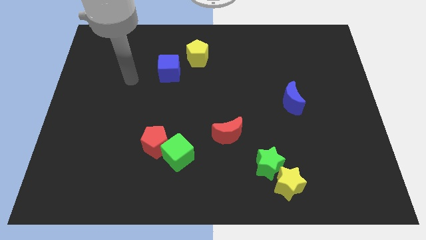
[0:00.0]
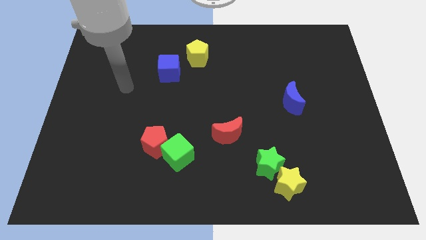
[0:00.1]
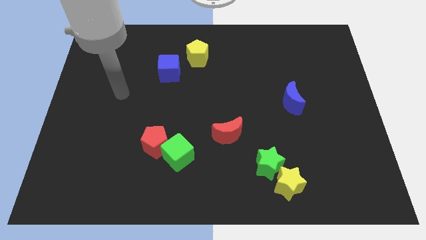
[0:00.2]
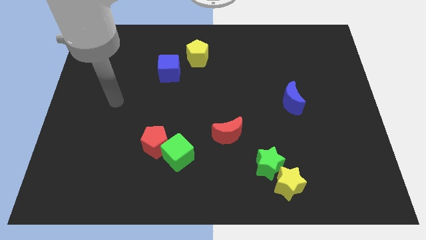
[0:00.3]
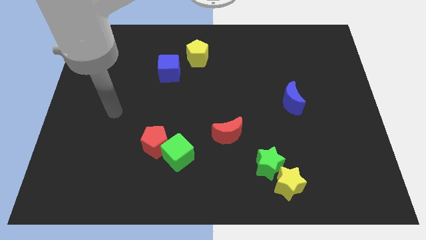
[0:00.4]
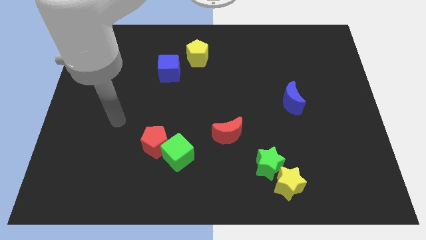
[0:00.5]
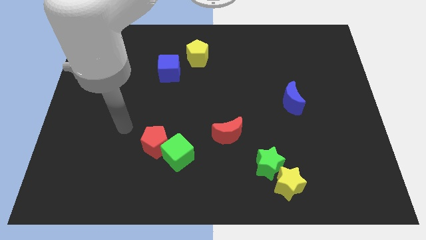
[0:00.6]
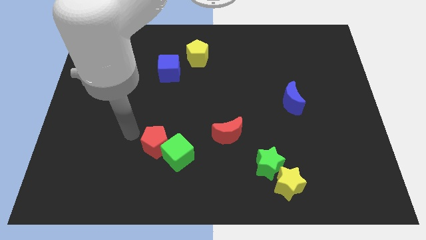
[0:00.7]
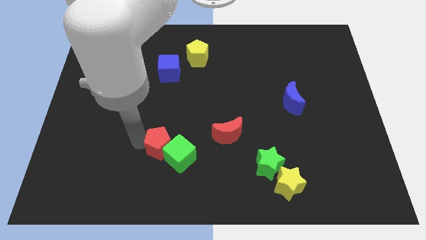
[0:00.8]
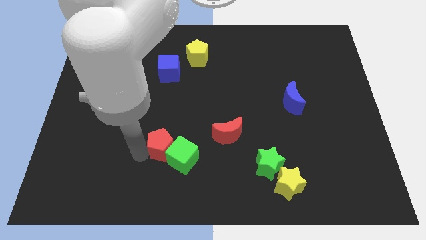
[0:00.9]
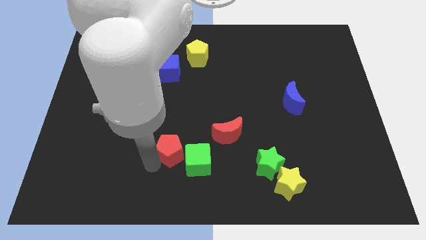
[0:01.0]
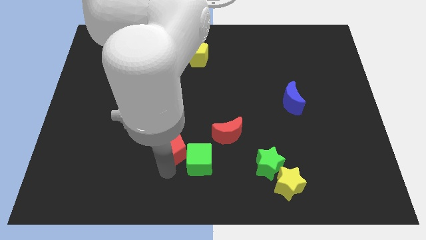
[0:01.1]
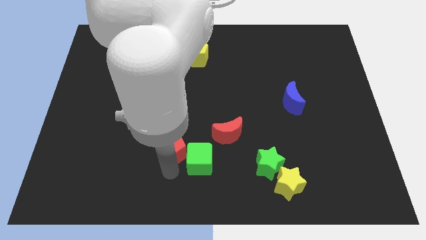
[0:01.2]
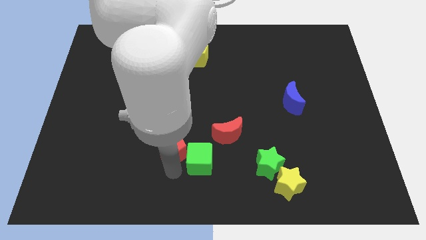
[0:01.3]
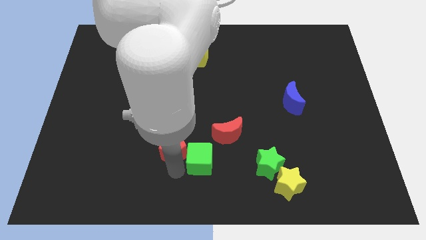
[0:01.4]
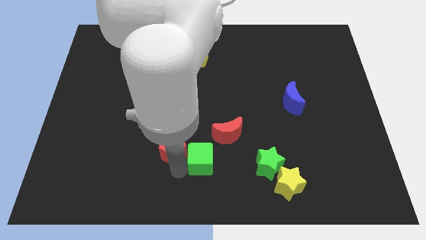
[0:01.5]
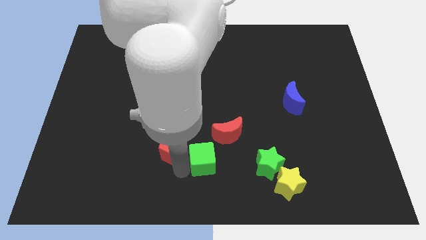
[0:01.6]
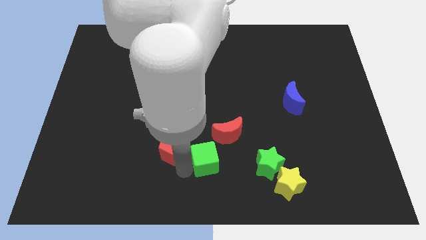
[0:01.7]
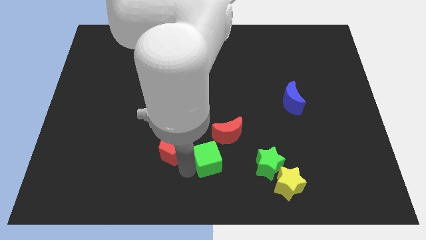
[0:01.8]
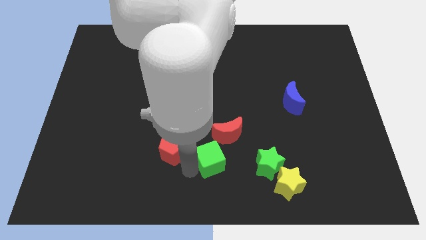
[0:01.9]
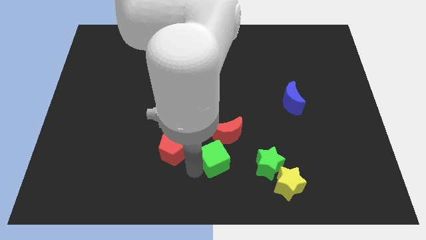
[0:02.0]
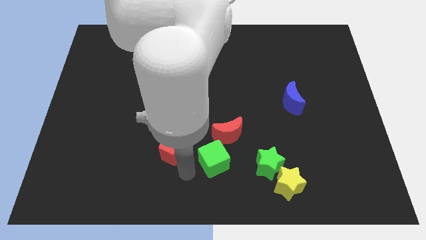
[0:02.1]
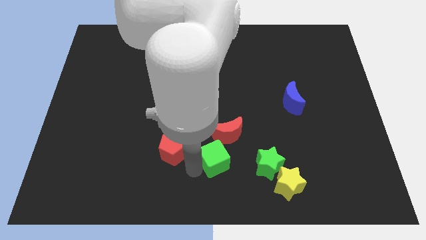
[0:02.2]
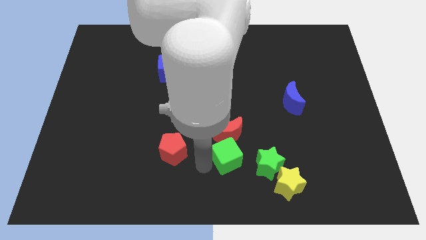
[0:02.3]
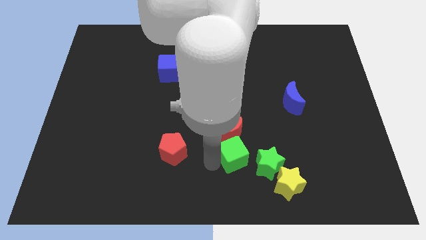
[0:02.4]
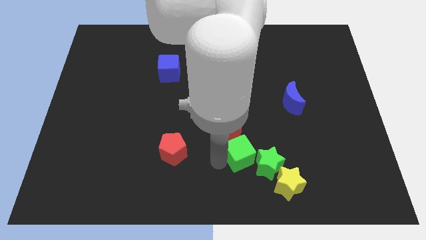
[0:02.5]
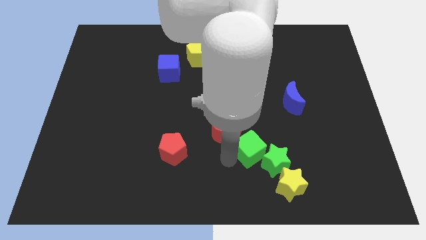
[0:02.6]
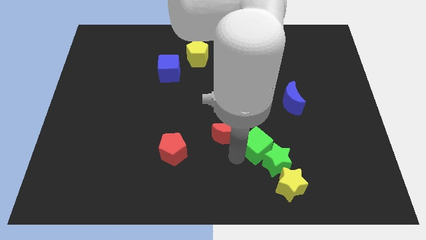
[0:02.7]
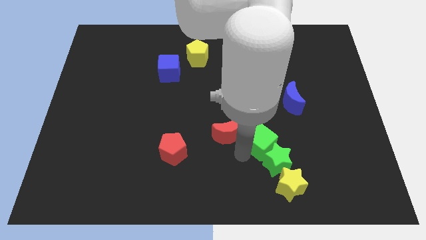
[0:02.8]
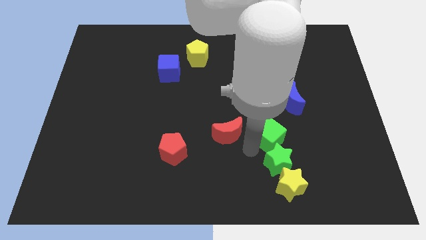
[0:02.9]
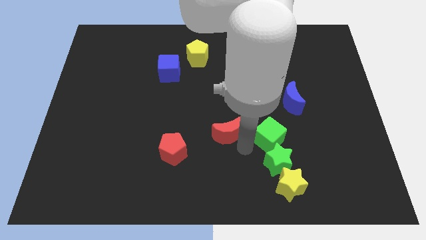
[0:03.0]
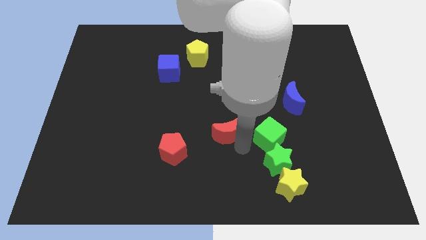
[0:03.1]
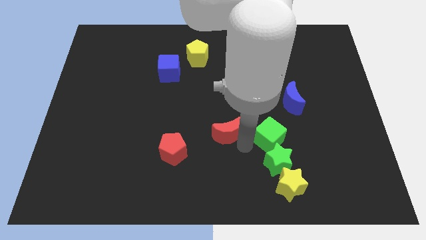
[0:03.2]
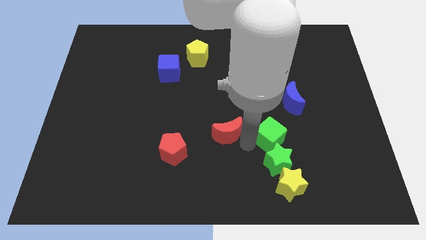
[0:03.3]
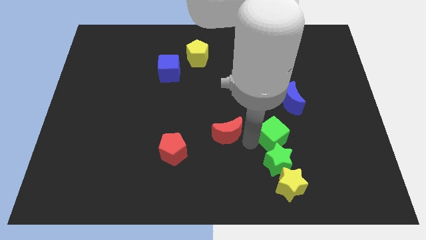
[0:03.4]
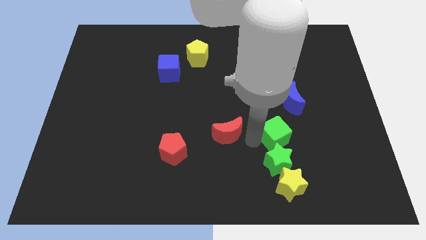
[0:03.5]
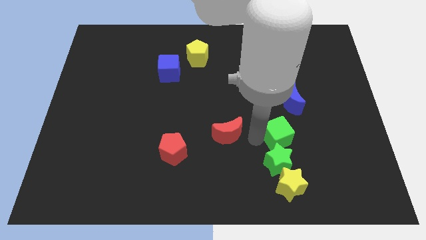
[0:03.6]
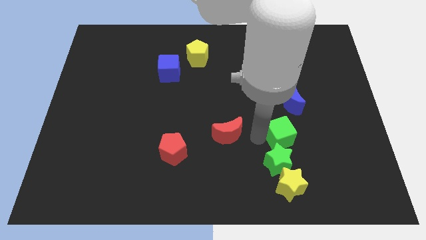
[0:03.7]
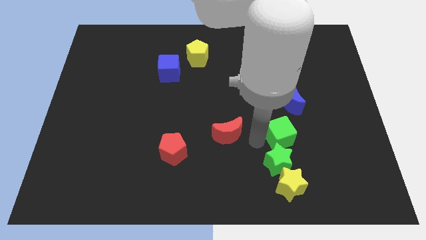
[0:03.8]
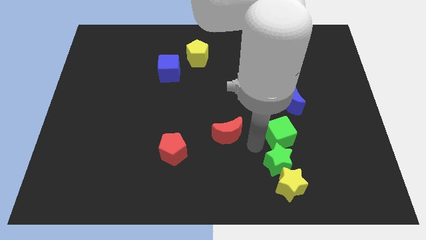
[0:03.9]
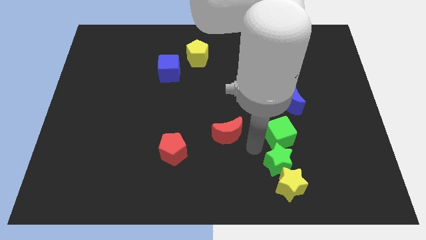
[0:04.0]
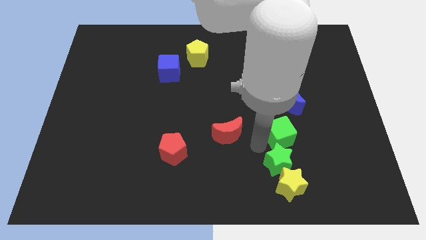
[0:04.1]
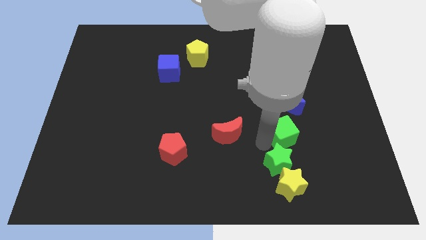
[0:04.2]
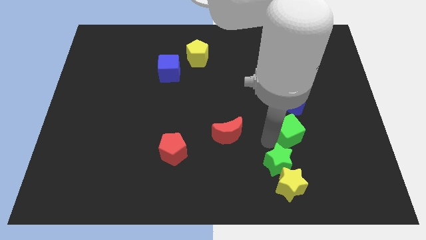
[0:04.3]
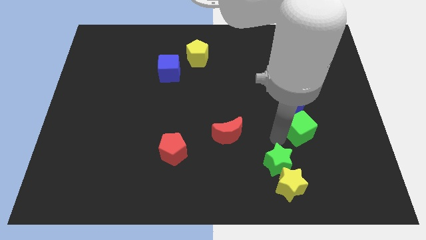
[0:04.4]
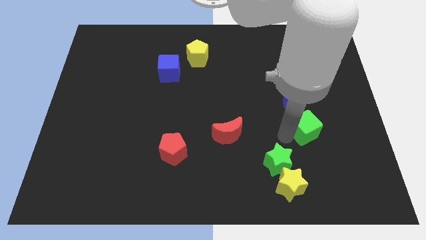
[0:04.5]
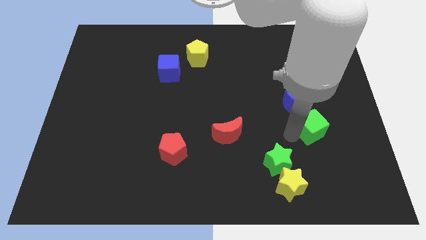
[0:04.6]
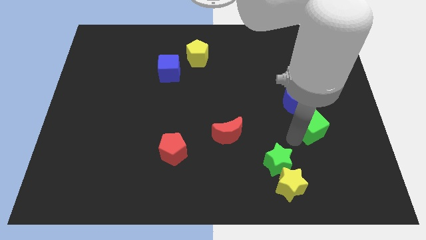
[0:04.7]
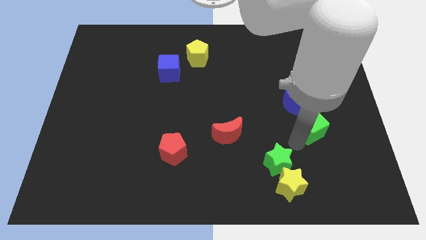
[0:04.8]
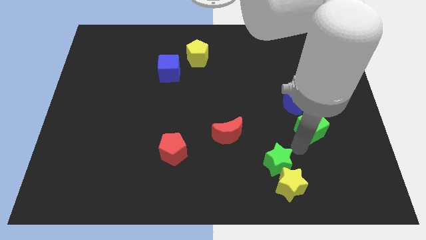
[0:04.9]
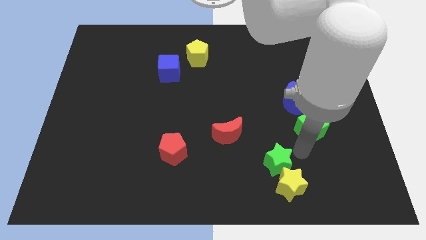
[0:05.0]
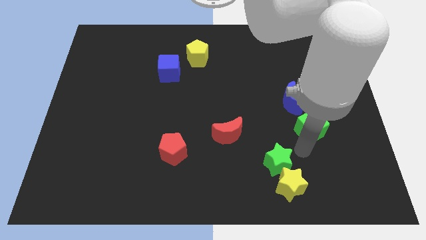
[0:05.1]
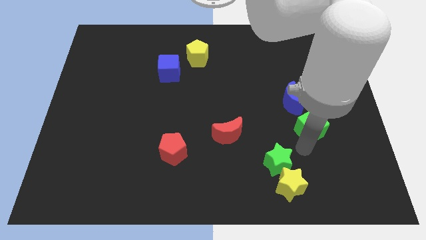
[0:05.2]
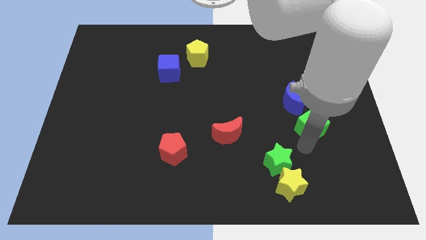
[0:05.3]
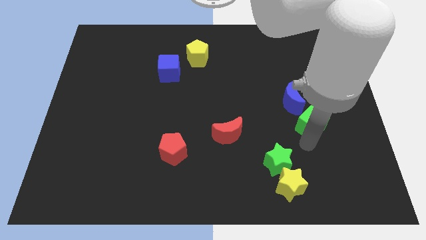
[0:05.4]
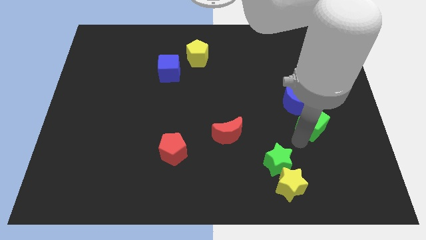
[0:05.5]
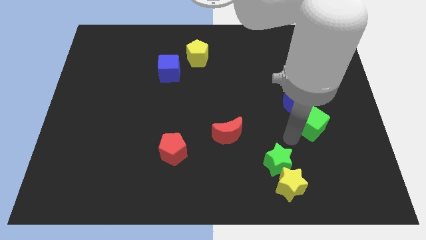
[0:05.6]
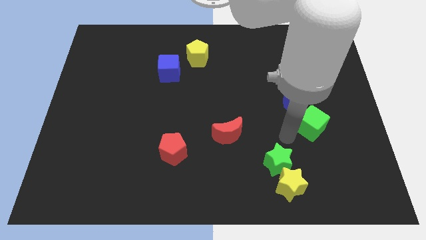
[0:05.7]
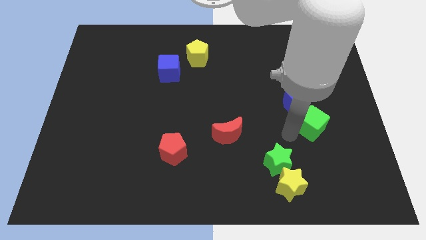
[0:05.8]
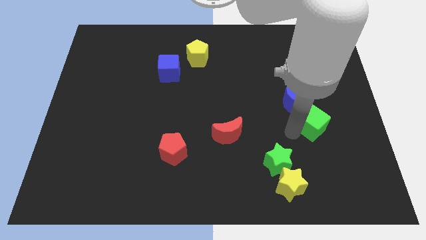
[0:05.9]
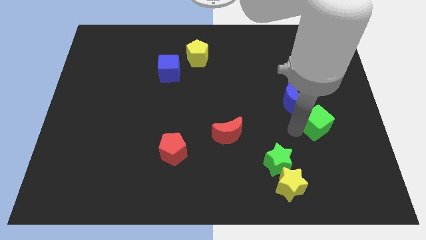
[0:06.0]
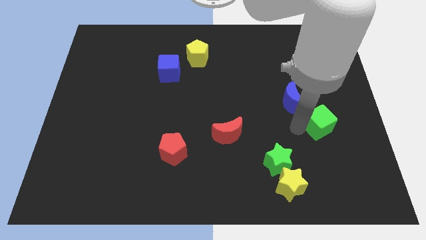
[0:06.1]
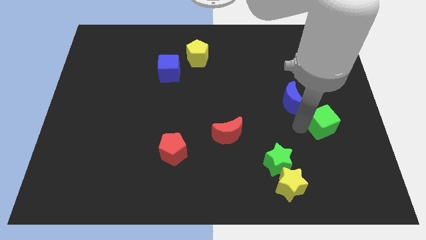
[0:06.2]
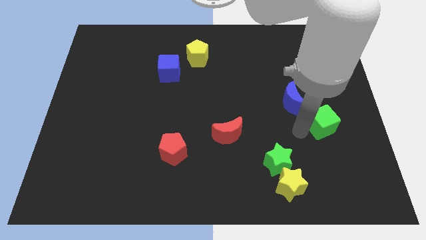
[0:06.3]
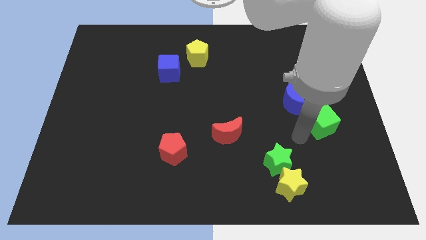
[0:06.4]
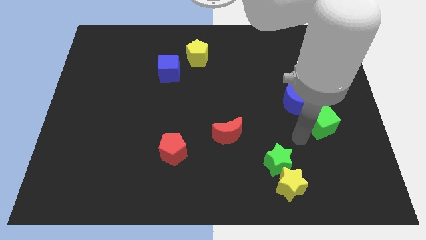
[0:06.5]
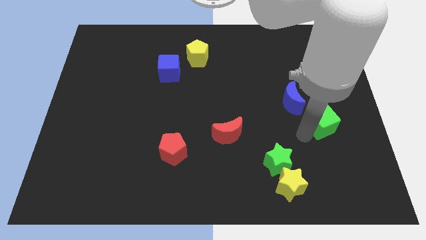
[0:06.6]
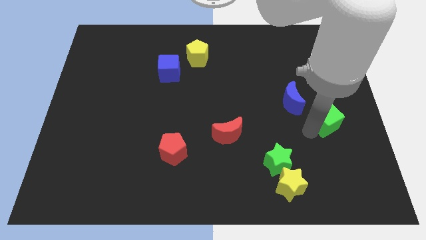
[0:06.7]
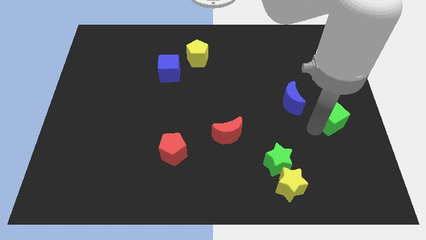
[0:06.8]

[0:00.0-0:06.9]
put the green cube to the right side
